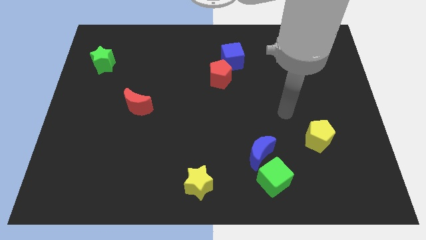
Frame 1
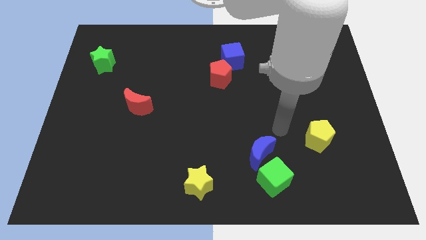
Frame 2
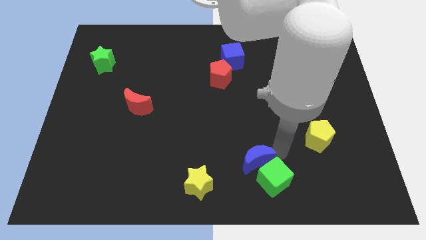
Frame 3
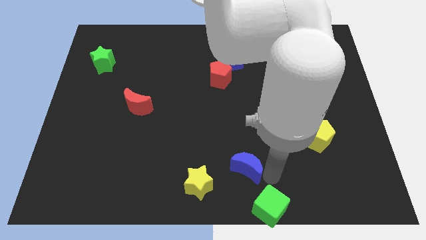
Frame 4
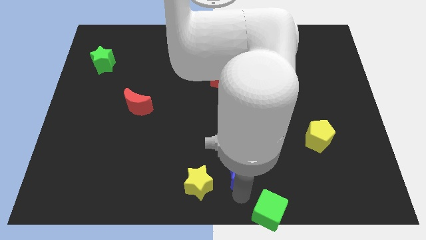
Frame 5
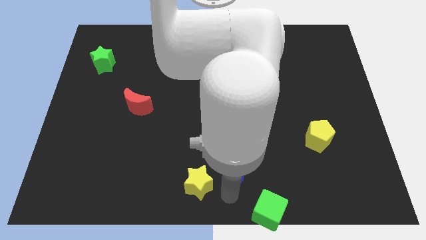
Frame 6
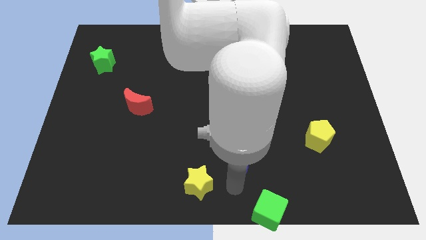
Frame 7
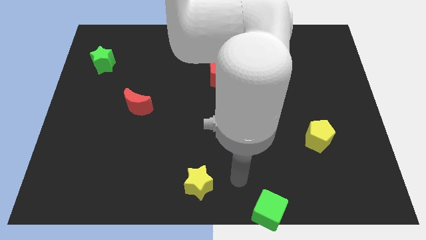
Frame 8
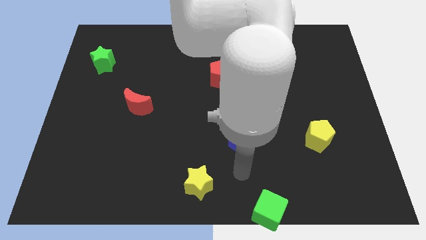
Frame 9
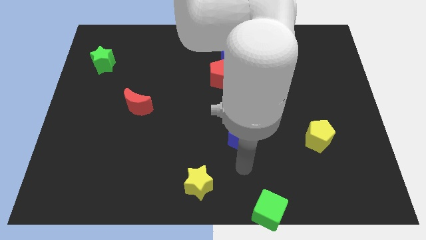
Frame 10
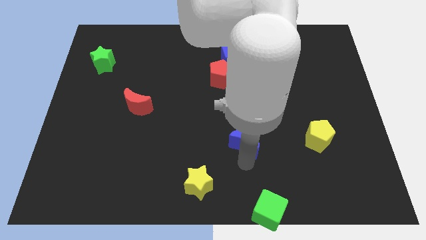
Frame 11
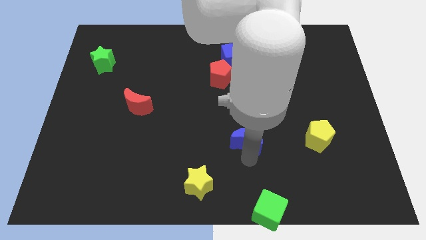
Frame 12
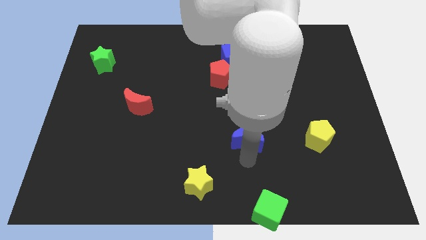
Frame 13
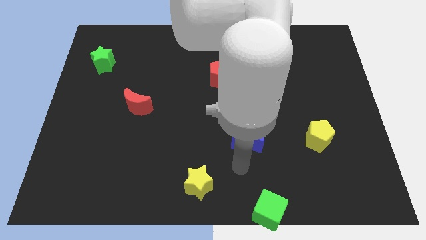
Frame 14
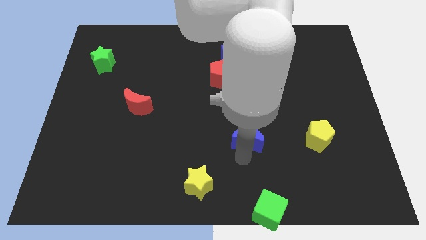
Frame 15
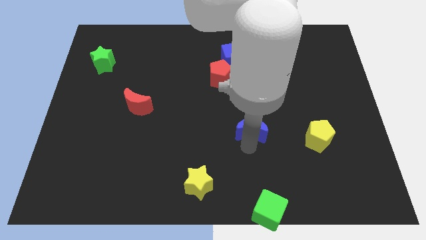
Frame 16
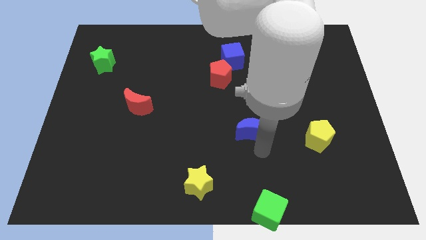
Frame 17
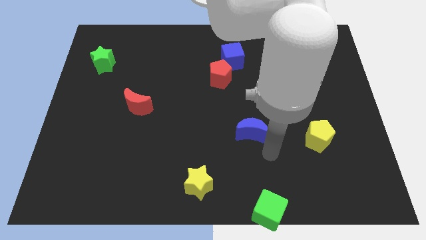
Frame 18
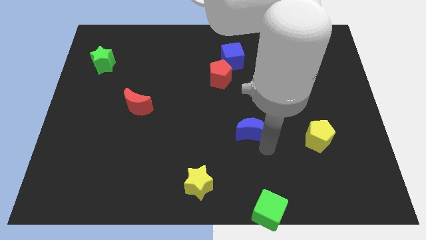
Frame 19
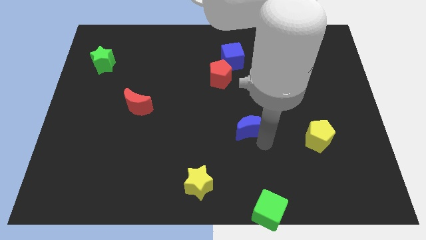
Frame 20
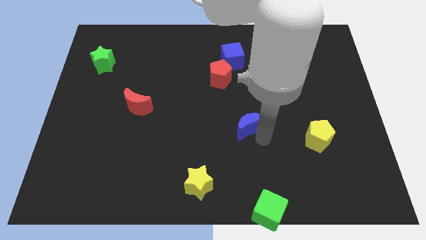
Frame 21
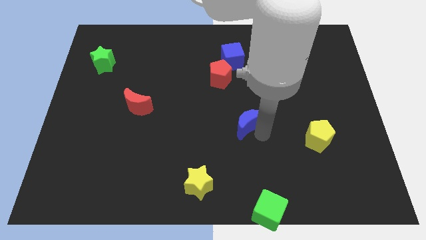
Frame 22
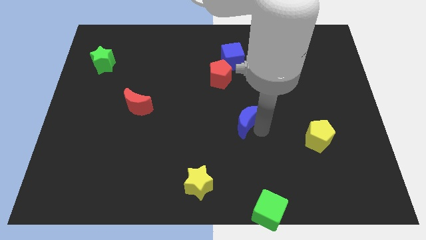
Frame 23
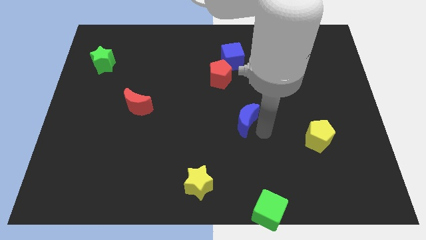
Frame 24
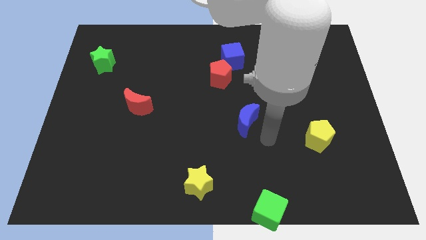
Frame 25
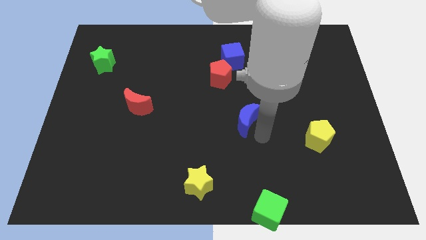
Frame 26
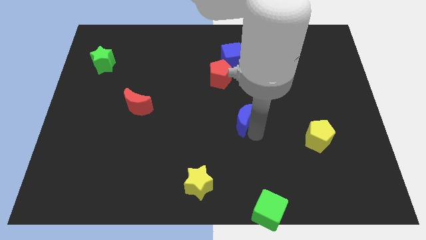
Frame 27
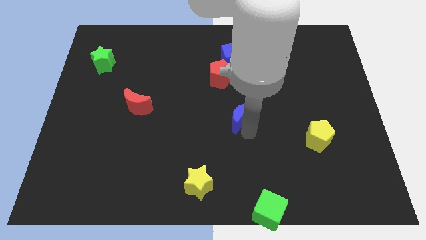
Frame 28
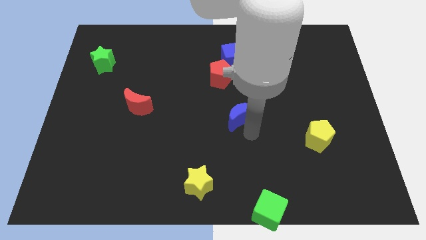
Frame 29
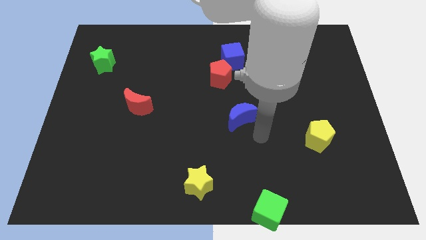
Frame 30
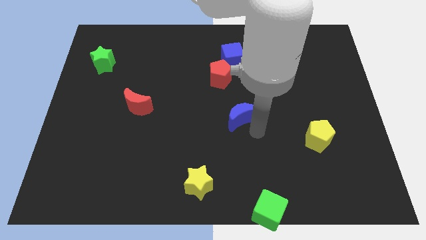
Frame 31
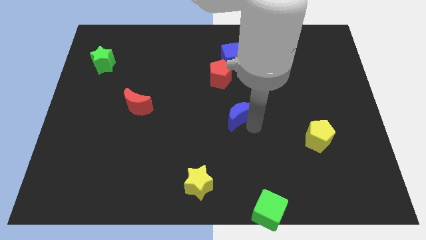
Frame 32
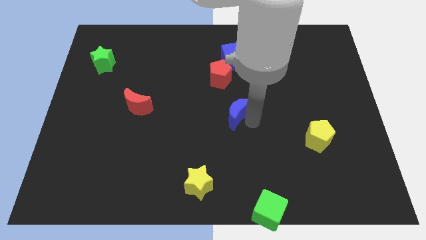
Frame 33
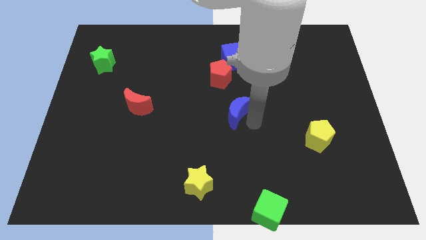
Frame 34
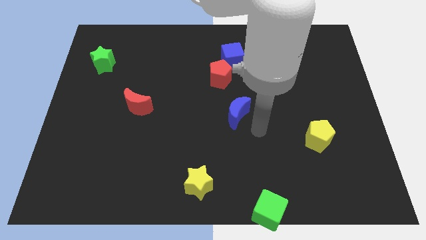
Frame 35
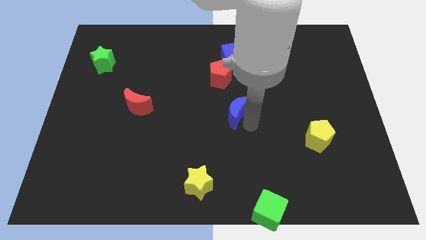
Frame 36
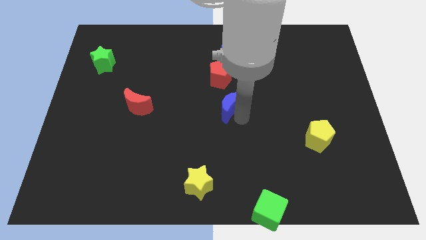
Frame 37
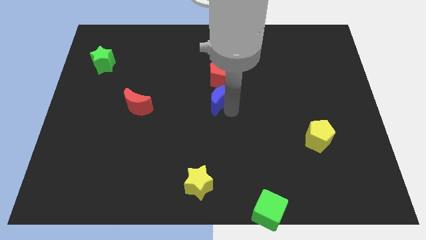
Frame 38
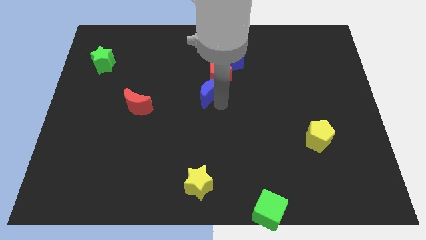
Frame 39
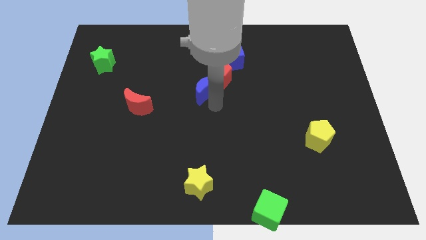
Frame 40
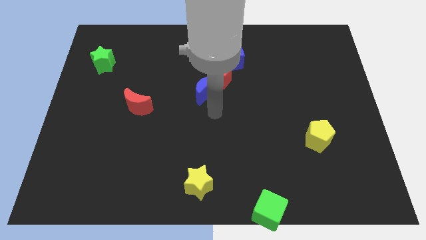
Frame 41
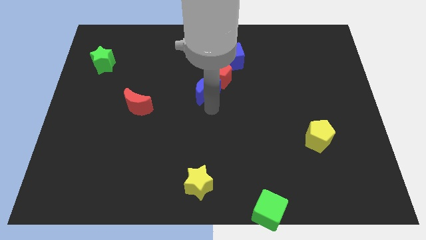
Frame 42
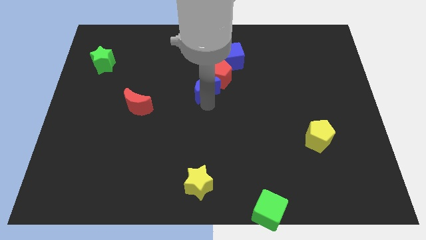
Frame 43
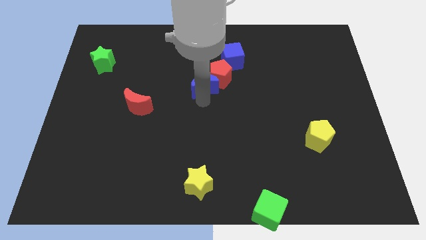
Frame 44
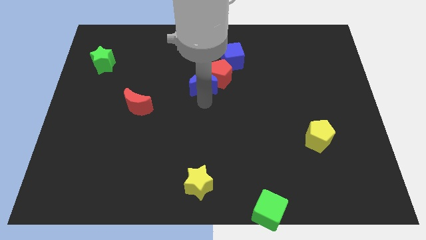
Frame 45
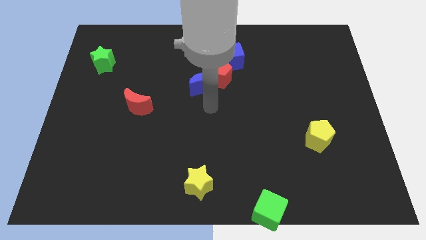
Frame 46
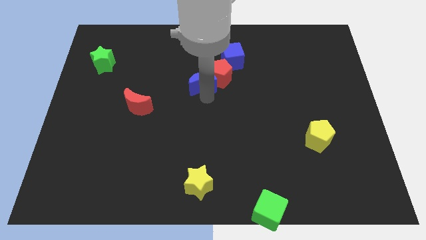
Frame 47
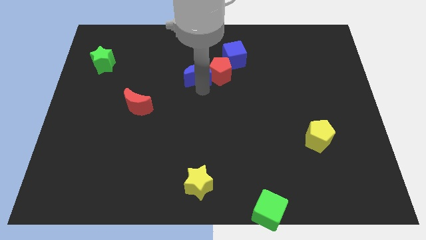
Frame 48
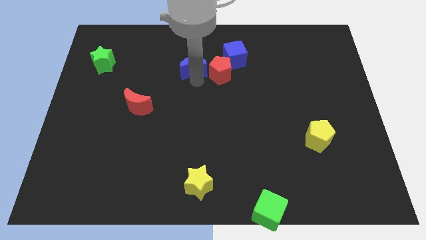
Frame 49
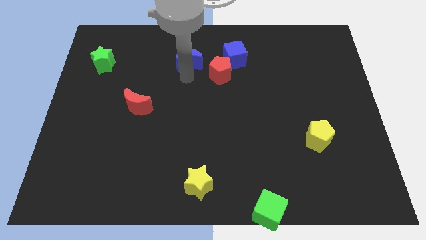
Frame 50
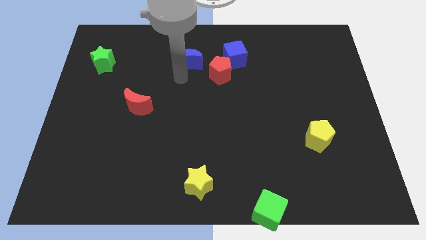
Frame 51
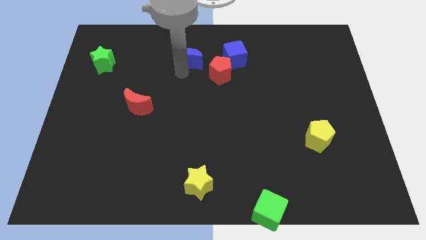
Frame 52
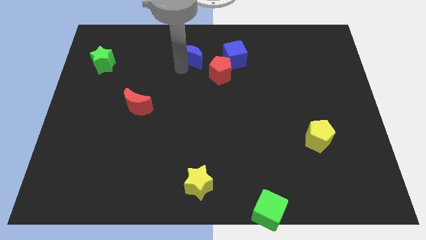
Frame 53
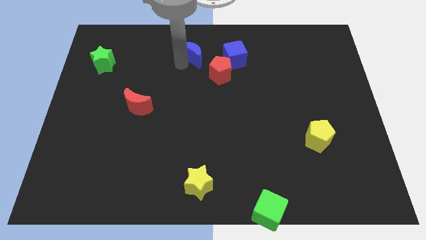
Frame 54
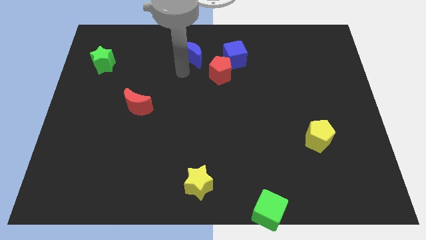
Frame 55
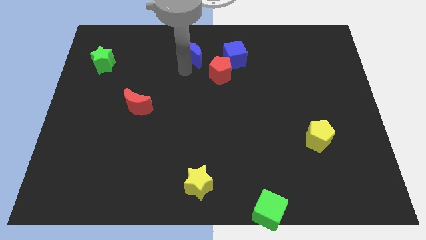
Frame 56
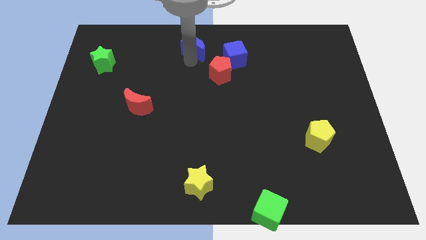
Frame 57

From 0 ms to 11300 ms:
move the blue moon to the top

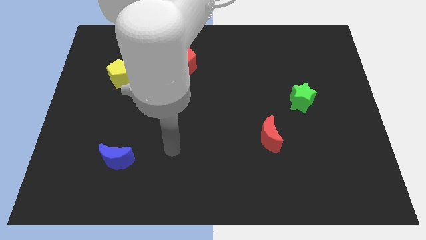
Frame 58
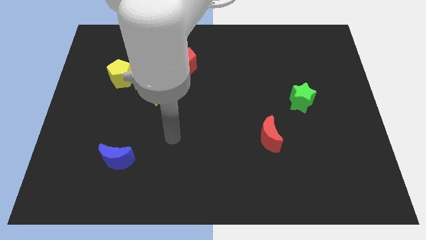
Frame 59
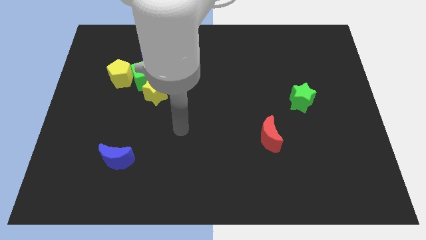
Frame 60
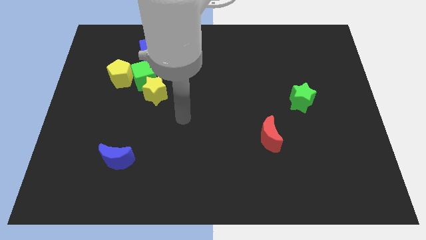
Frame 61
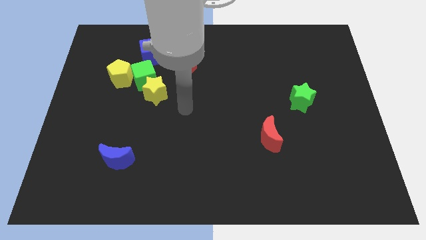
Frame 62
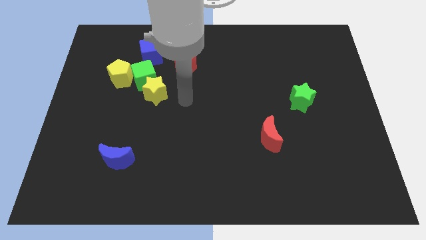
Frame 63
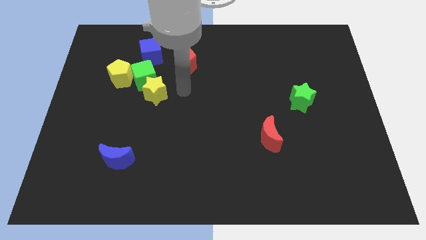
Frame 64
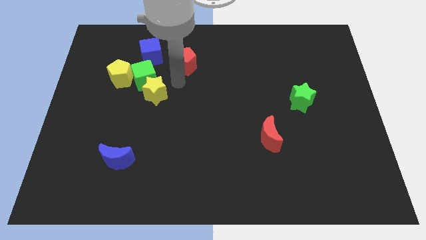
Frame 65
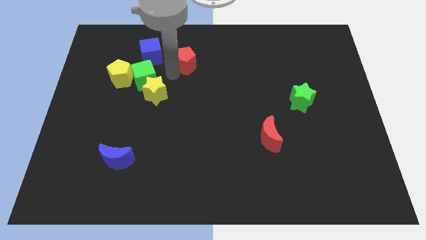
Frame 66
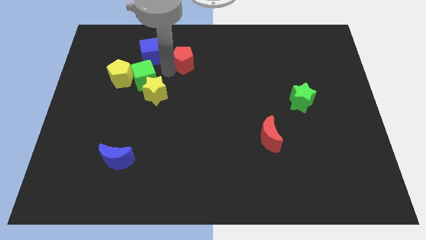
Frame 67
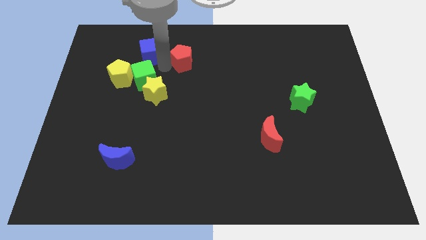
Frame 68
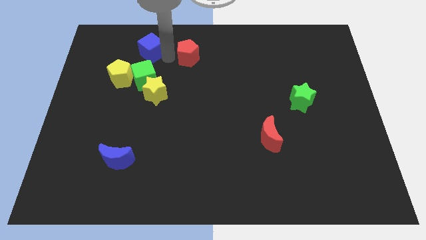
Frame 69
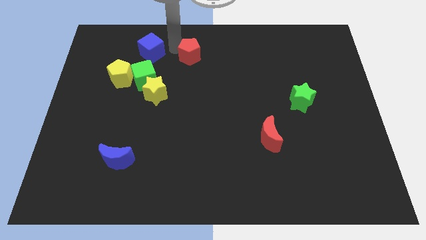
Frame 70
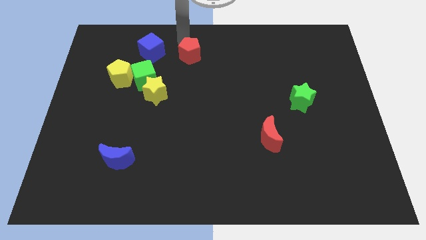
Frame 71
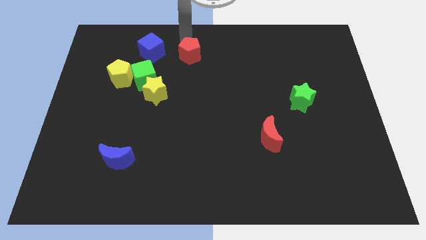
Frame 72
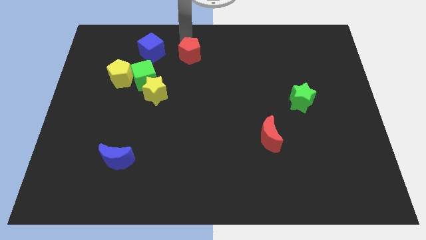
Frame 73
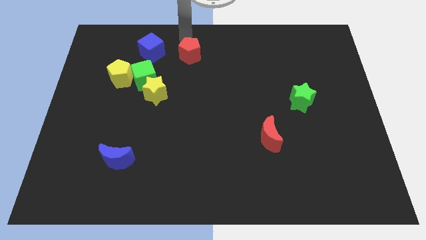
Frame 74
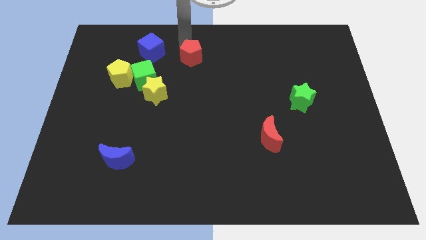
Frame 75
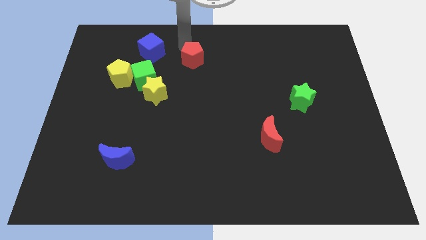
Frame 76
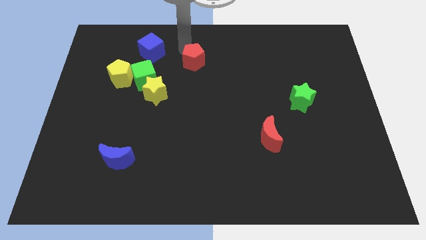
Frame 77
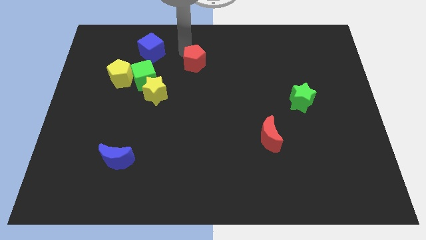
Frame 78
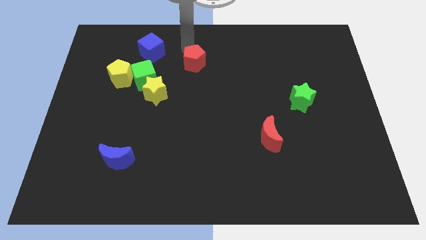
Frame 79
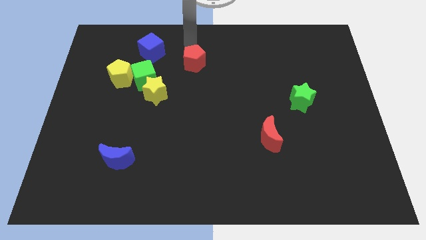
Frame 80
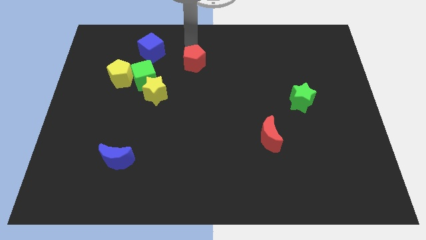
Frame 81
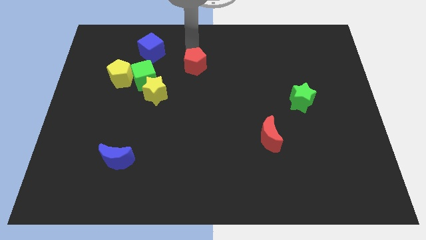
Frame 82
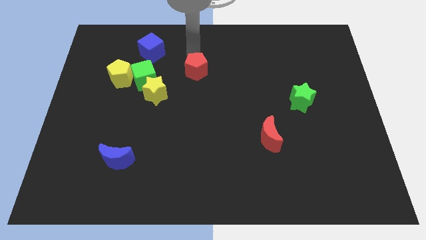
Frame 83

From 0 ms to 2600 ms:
push the red pentagon to the center
